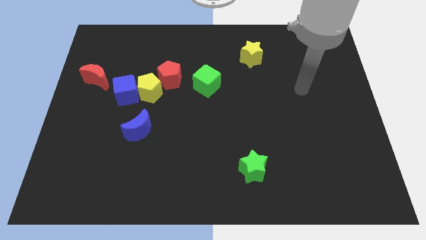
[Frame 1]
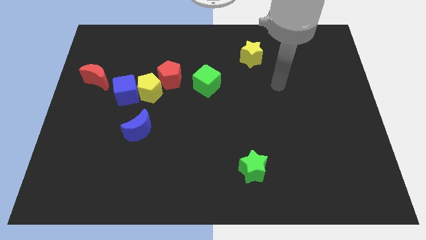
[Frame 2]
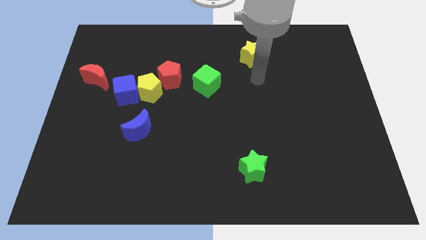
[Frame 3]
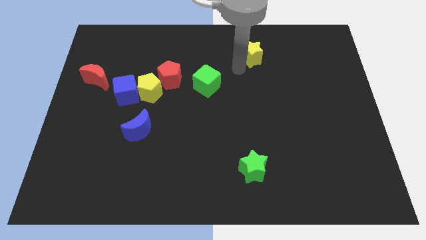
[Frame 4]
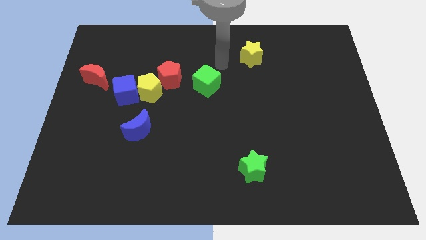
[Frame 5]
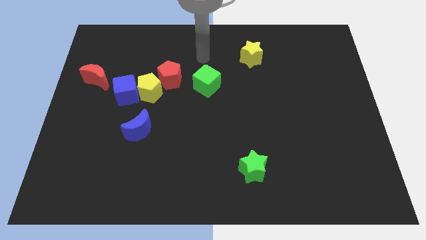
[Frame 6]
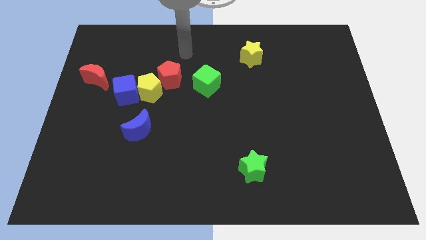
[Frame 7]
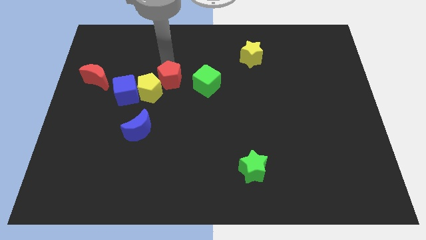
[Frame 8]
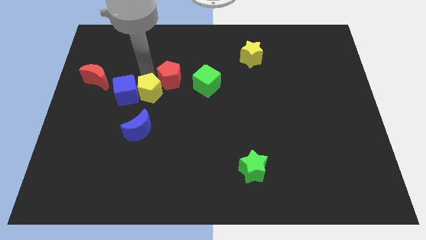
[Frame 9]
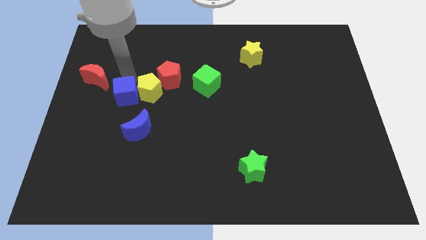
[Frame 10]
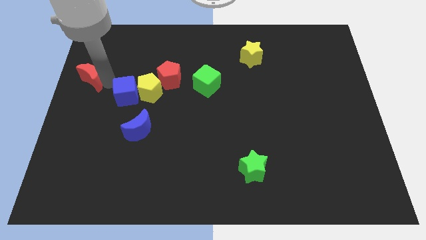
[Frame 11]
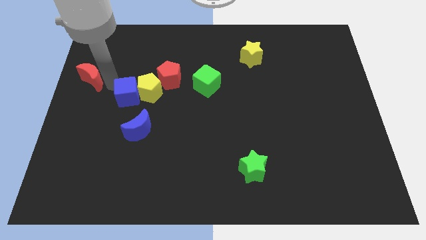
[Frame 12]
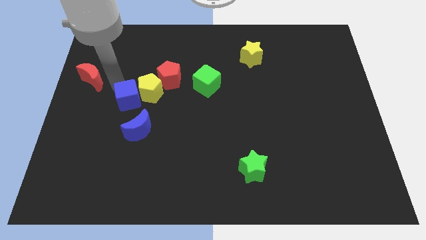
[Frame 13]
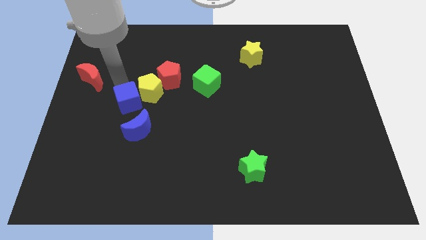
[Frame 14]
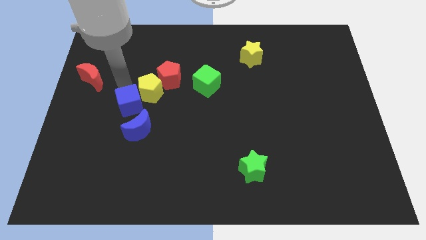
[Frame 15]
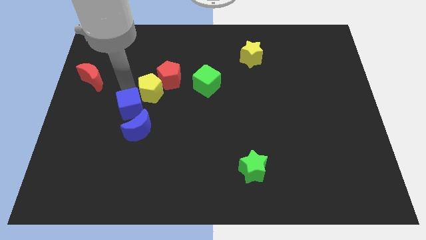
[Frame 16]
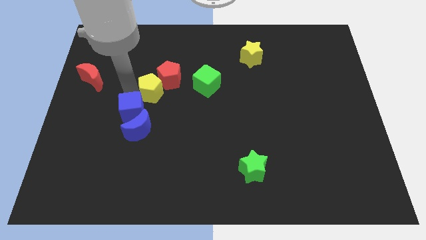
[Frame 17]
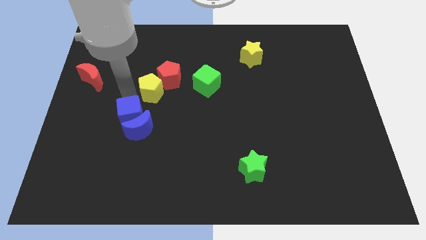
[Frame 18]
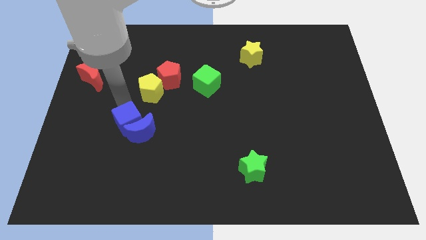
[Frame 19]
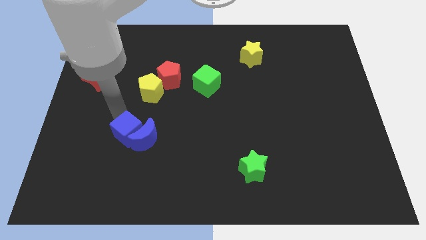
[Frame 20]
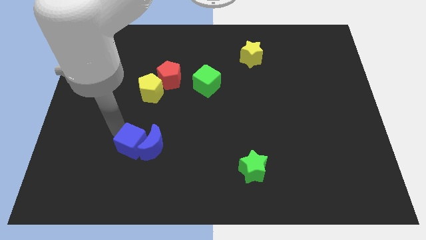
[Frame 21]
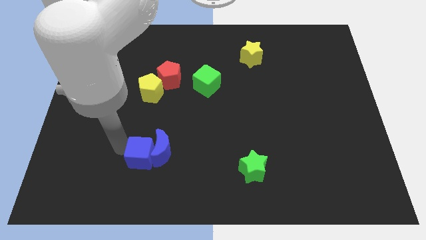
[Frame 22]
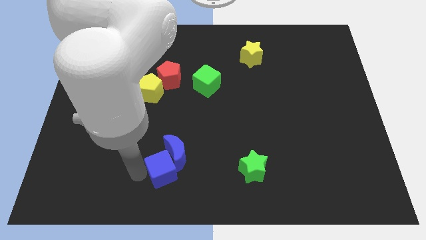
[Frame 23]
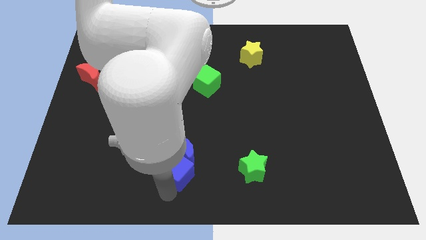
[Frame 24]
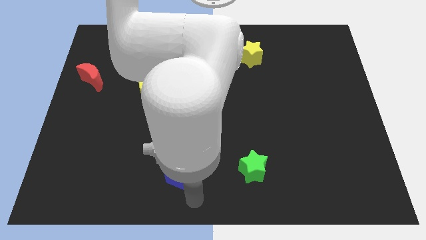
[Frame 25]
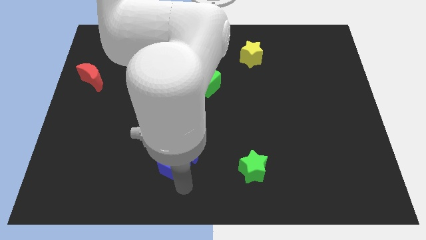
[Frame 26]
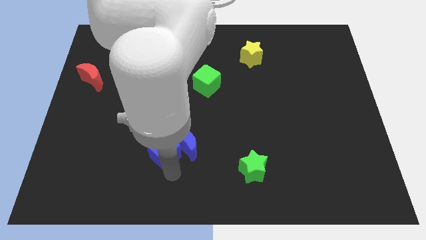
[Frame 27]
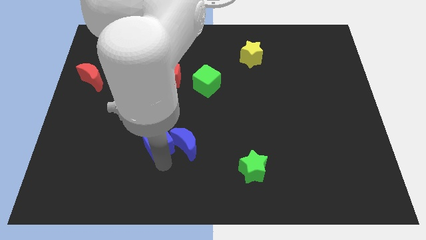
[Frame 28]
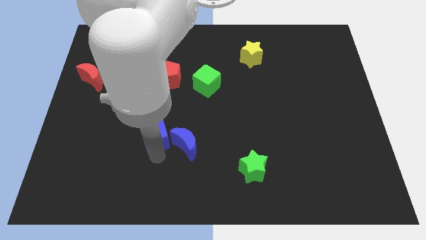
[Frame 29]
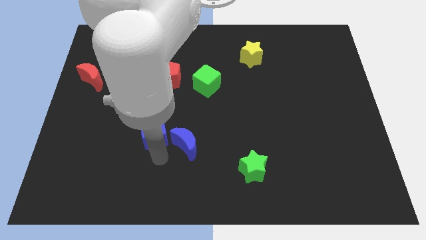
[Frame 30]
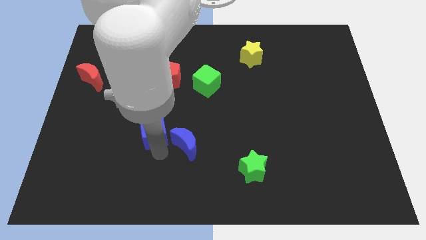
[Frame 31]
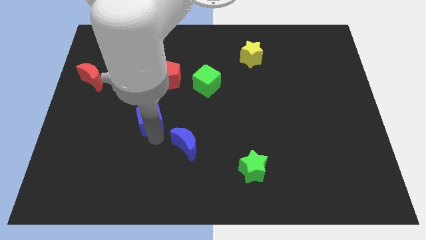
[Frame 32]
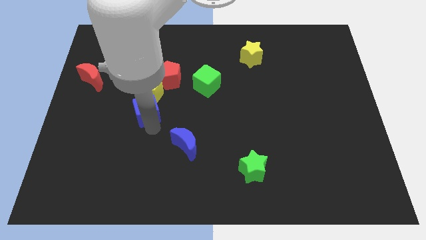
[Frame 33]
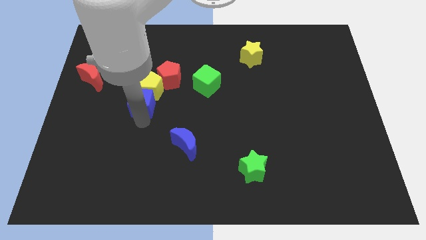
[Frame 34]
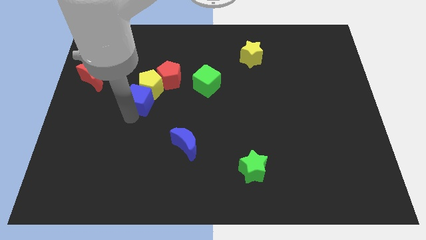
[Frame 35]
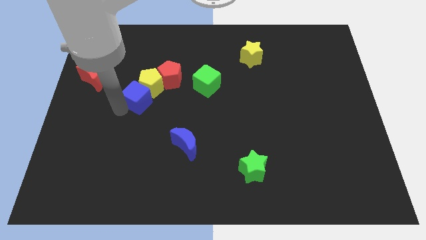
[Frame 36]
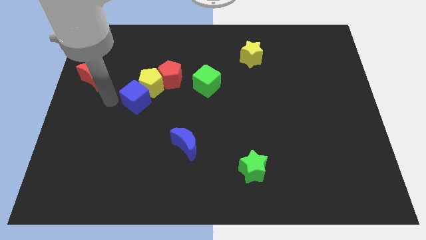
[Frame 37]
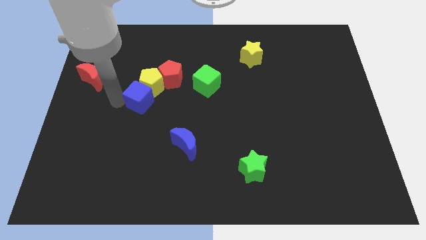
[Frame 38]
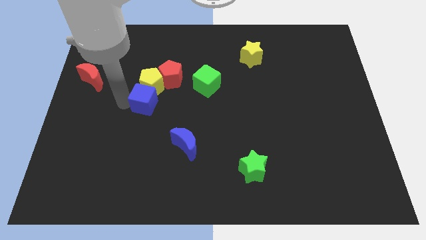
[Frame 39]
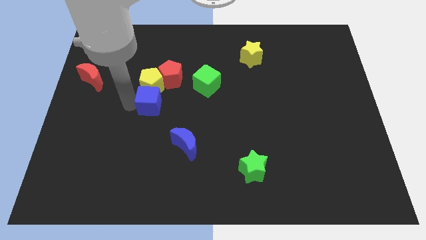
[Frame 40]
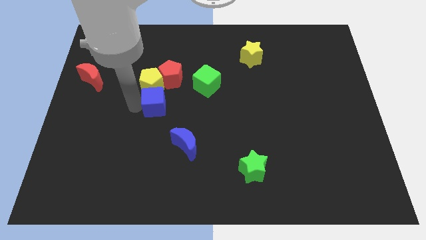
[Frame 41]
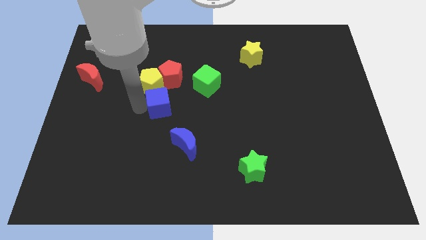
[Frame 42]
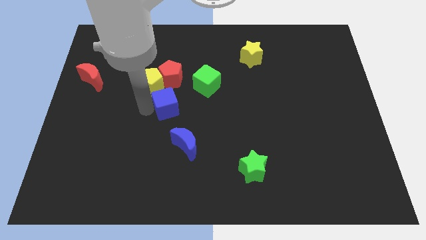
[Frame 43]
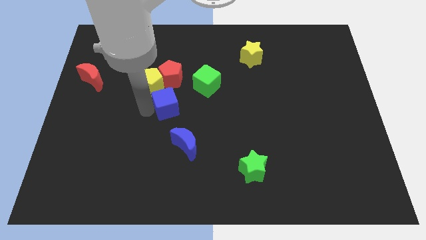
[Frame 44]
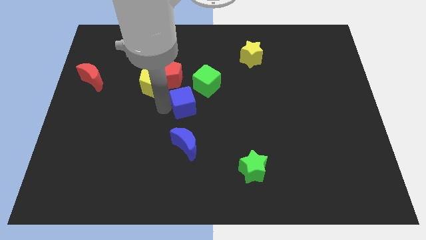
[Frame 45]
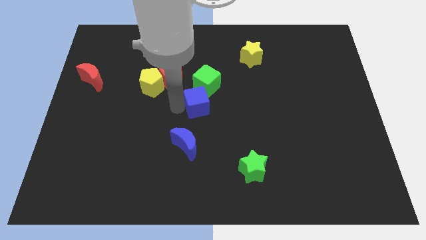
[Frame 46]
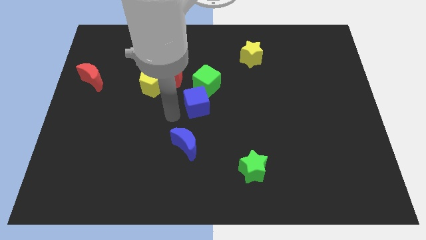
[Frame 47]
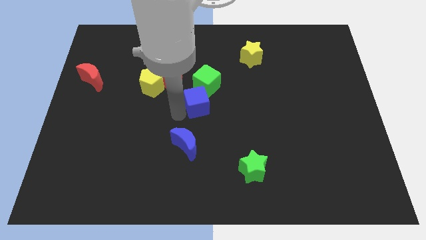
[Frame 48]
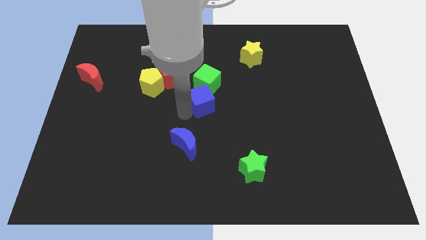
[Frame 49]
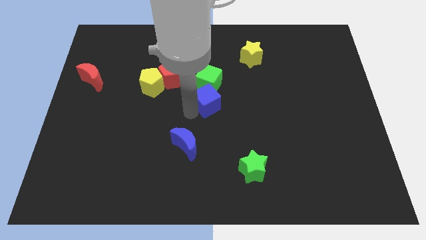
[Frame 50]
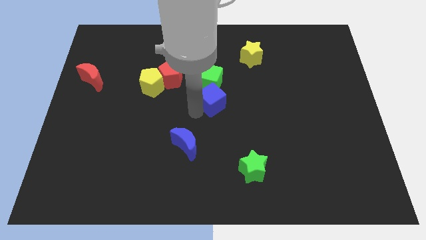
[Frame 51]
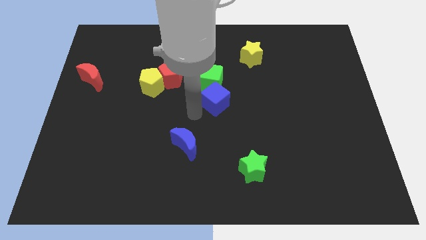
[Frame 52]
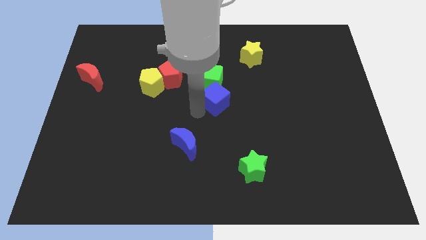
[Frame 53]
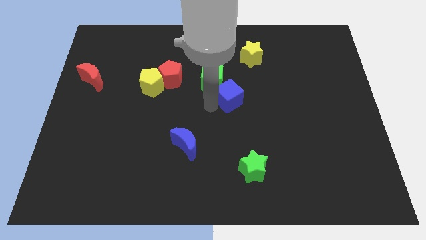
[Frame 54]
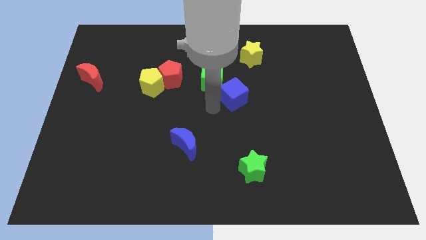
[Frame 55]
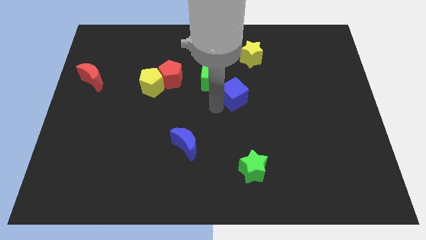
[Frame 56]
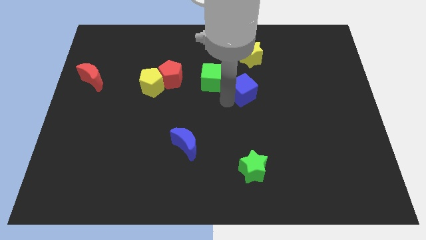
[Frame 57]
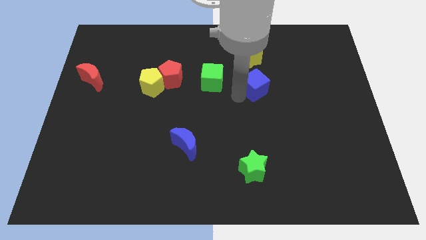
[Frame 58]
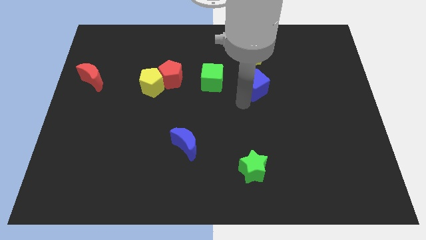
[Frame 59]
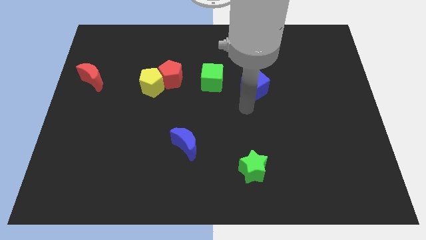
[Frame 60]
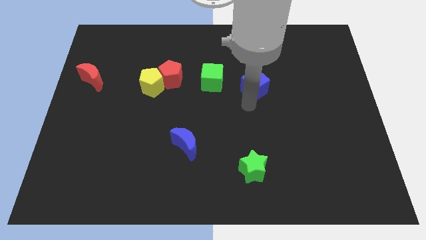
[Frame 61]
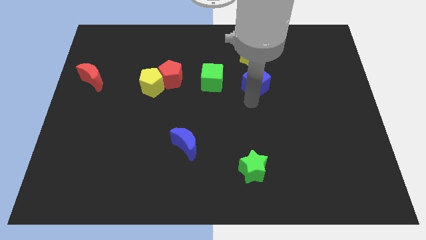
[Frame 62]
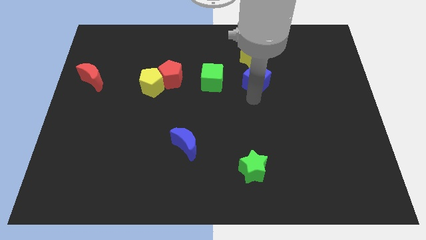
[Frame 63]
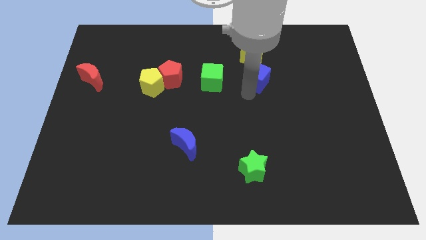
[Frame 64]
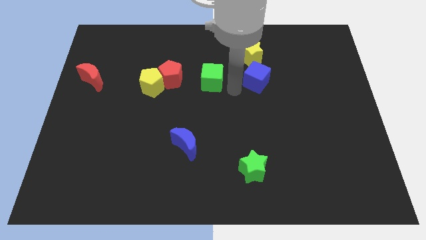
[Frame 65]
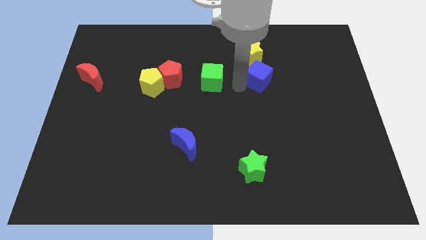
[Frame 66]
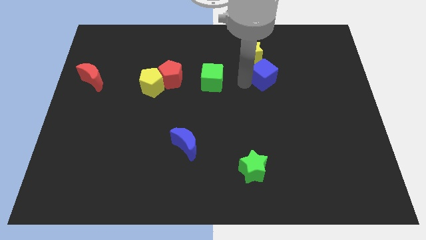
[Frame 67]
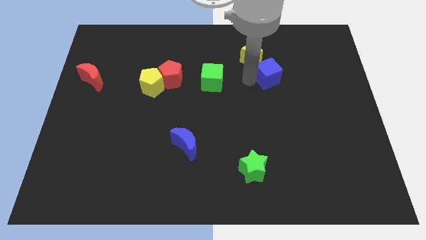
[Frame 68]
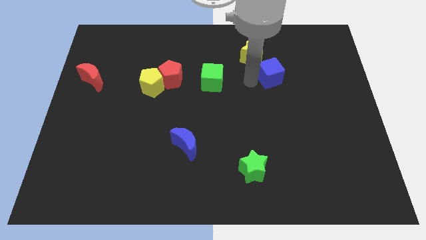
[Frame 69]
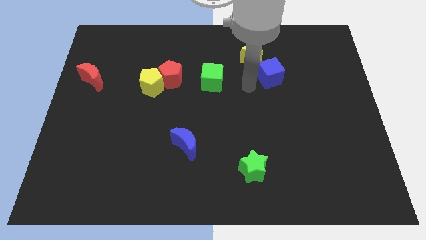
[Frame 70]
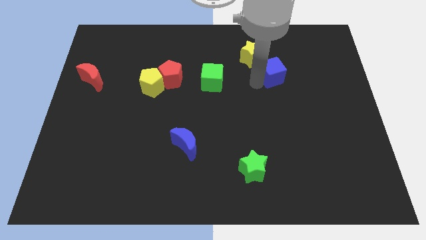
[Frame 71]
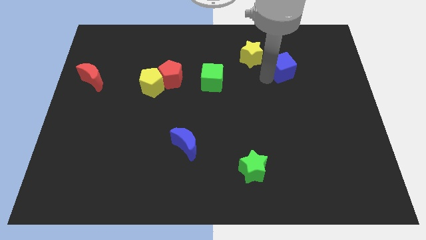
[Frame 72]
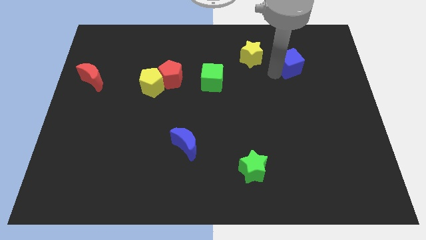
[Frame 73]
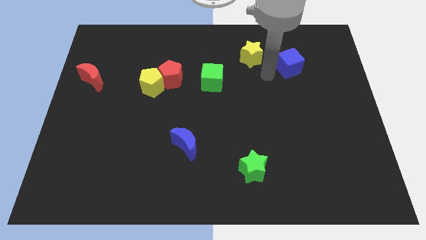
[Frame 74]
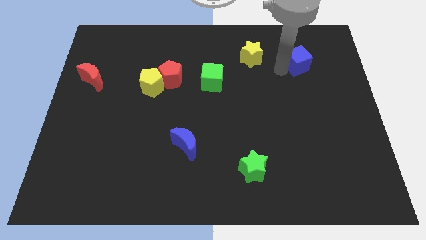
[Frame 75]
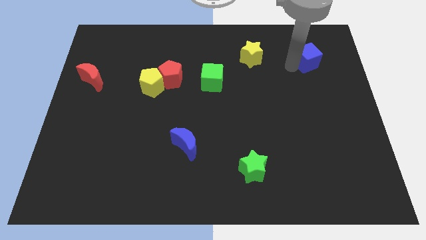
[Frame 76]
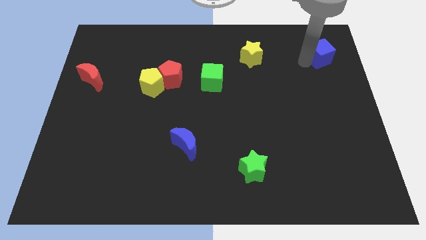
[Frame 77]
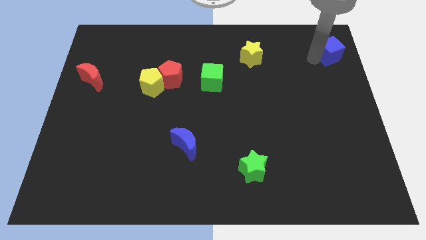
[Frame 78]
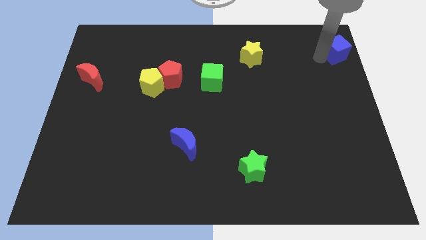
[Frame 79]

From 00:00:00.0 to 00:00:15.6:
move the blue cube to the top right corner
